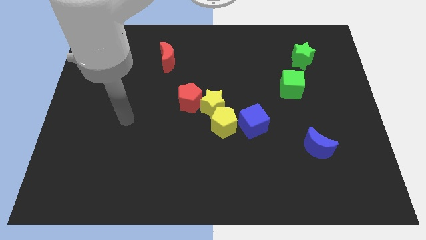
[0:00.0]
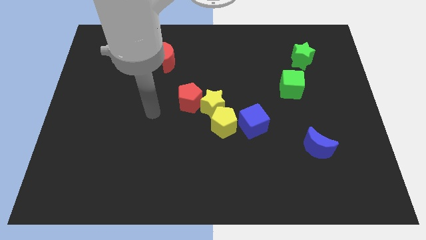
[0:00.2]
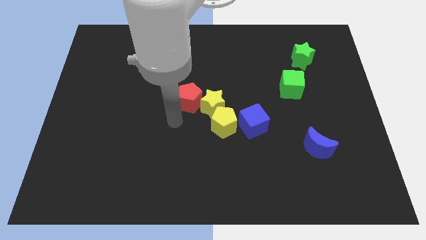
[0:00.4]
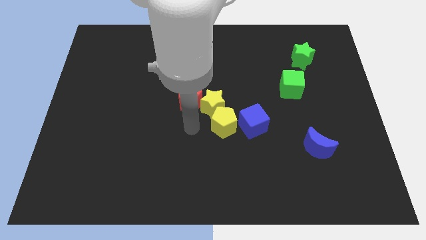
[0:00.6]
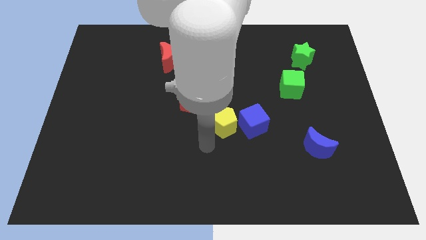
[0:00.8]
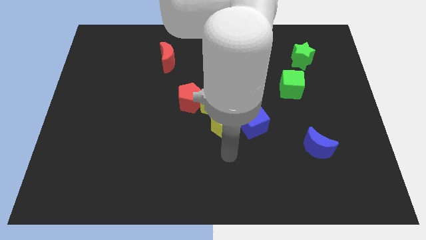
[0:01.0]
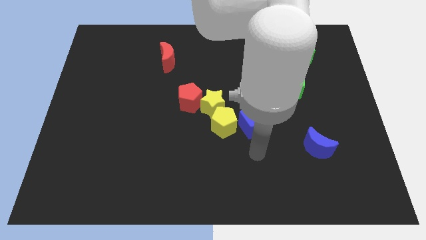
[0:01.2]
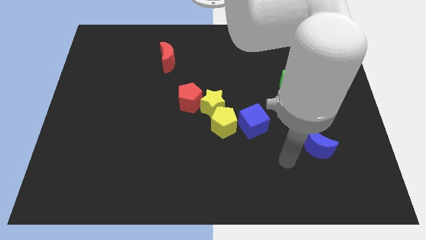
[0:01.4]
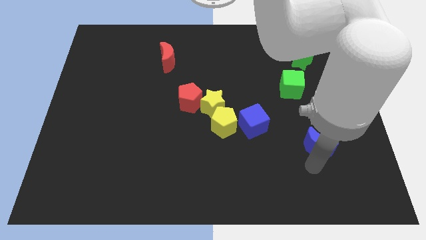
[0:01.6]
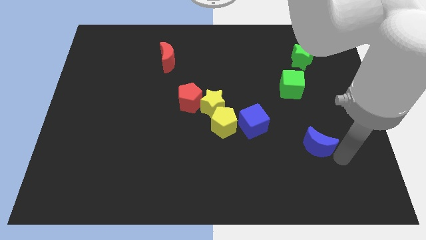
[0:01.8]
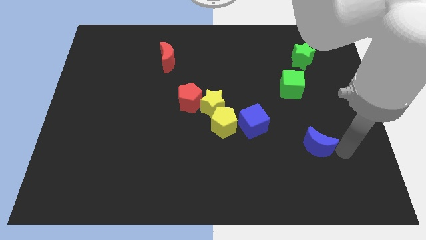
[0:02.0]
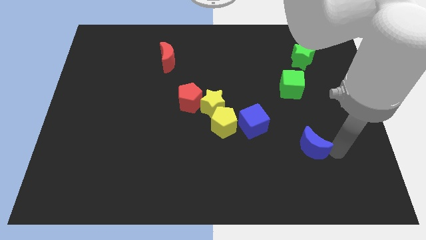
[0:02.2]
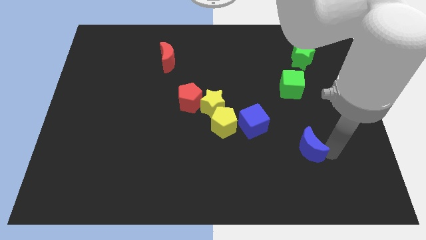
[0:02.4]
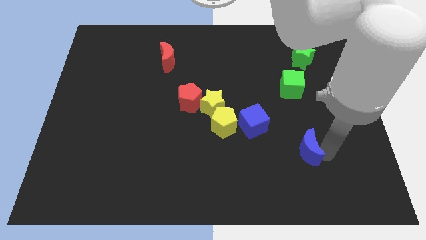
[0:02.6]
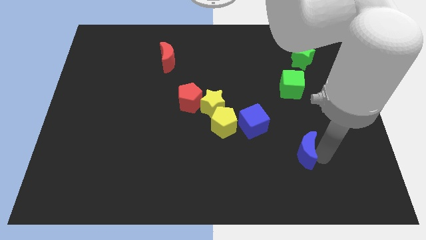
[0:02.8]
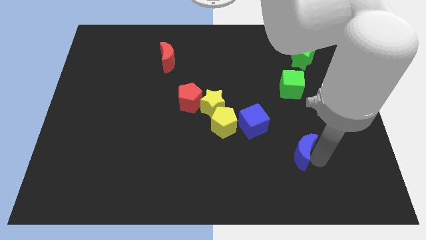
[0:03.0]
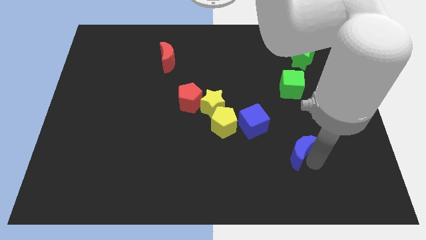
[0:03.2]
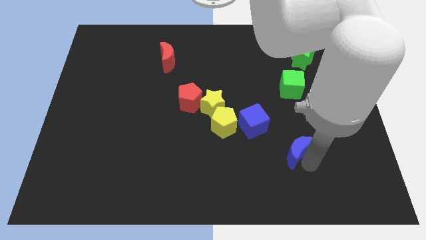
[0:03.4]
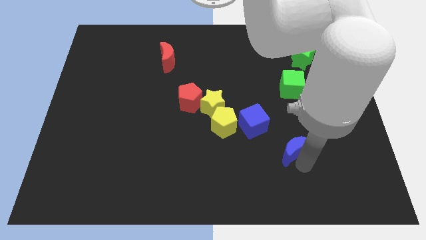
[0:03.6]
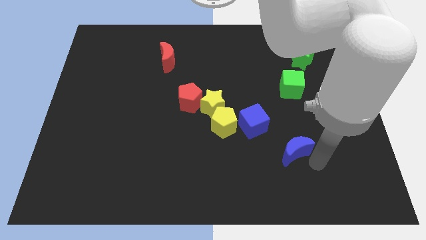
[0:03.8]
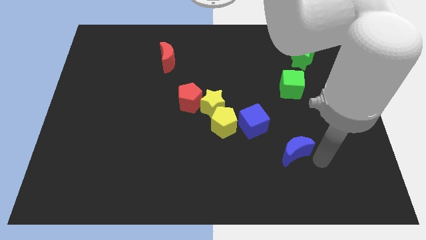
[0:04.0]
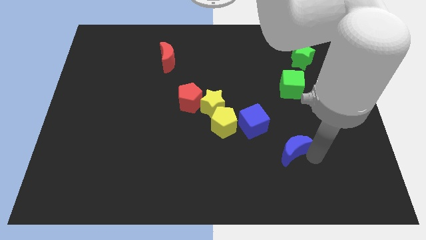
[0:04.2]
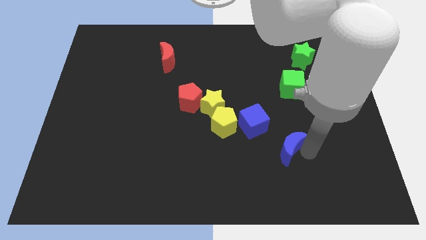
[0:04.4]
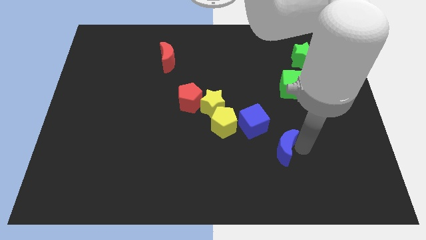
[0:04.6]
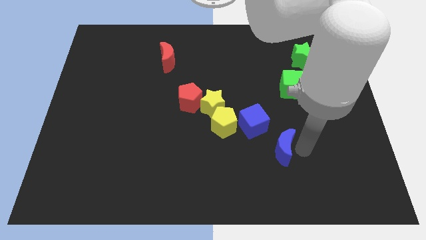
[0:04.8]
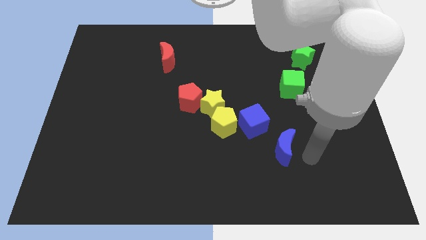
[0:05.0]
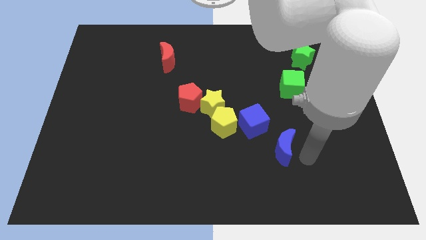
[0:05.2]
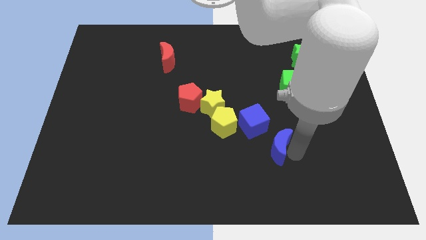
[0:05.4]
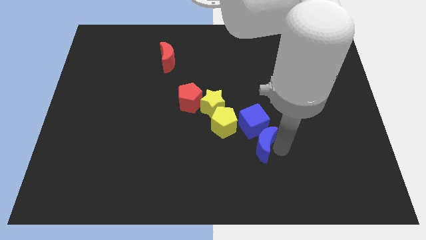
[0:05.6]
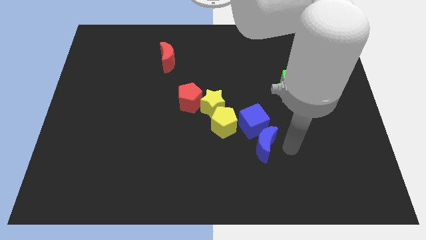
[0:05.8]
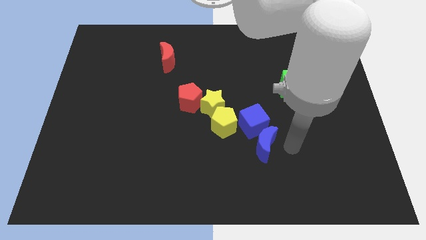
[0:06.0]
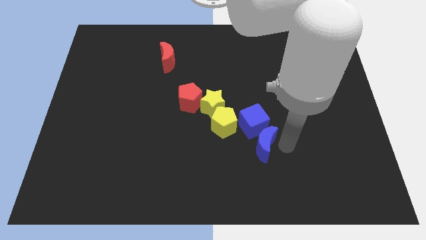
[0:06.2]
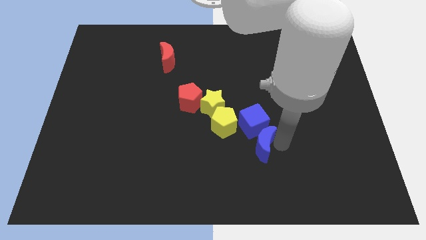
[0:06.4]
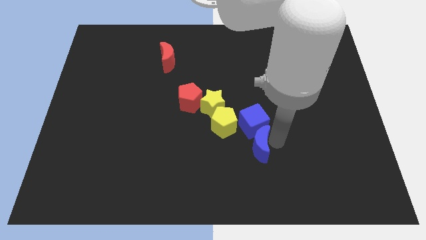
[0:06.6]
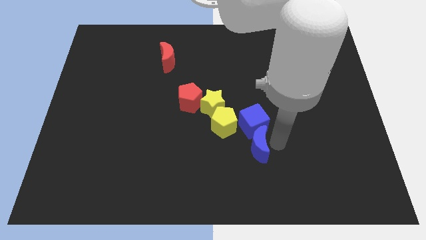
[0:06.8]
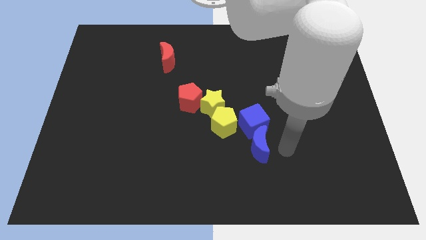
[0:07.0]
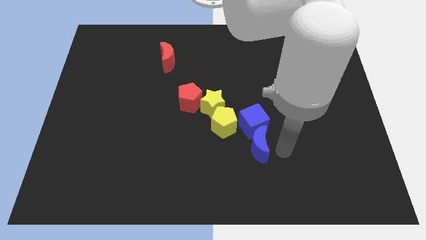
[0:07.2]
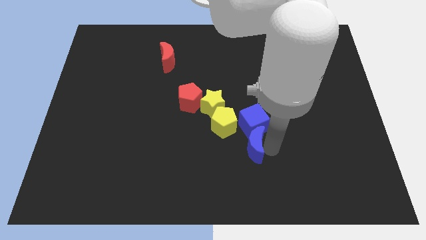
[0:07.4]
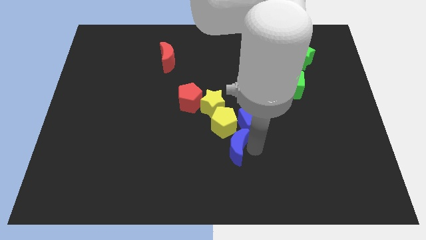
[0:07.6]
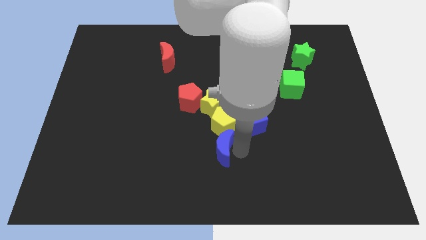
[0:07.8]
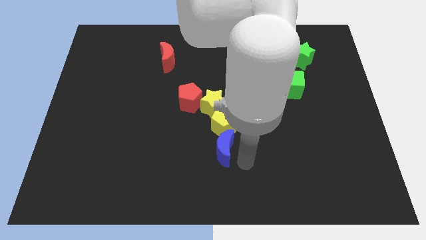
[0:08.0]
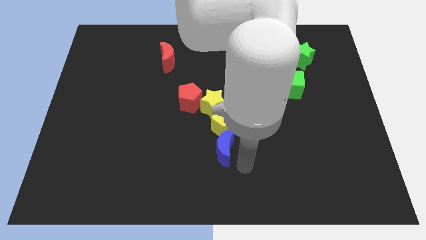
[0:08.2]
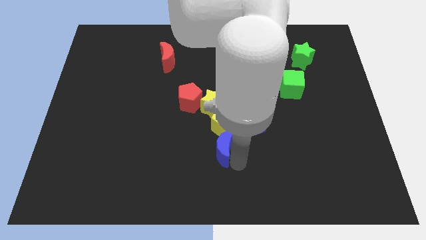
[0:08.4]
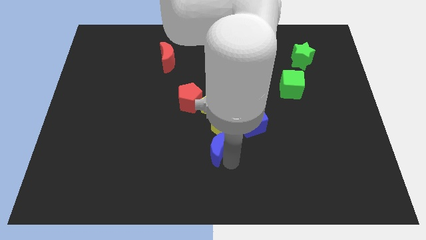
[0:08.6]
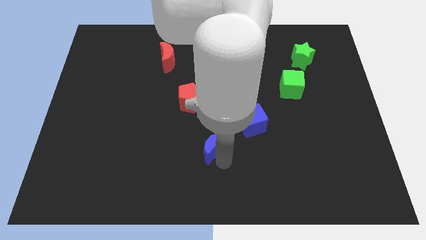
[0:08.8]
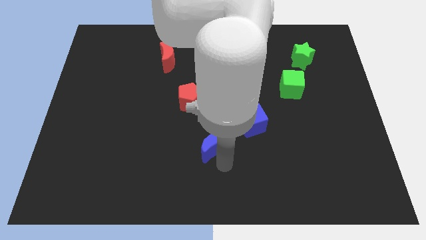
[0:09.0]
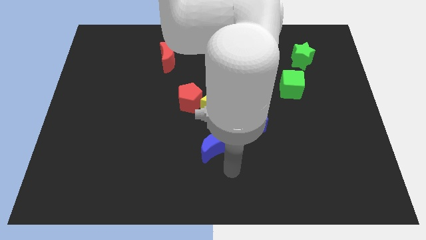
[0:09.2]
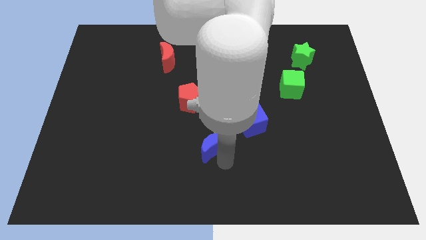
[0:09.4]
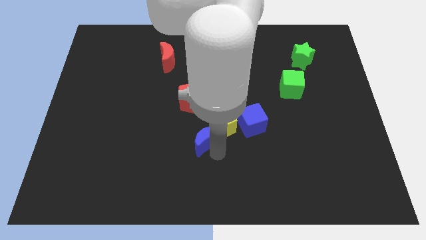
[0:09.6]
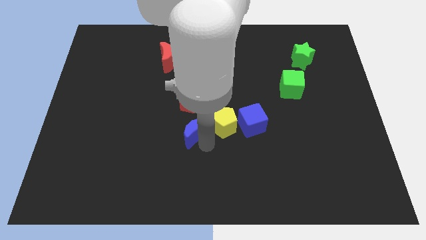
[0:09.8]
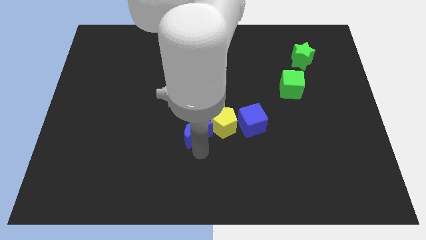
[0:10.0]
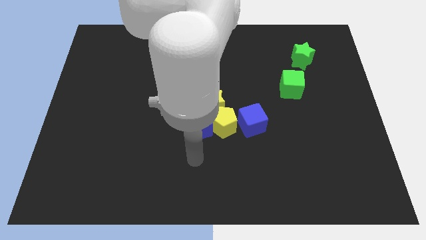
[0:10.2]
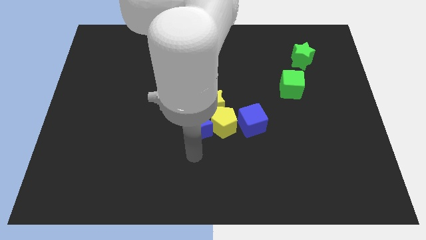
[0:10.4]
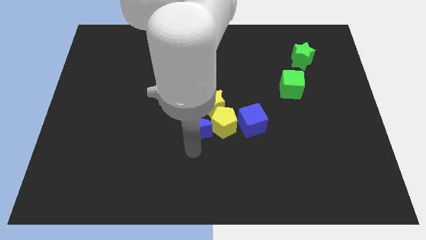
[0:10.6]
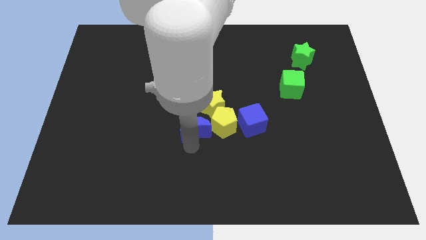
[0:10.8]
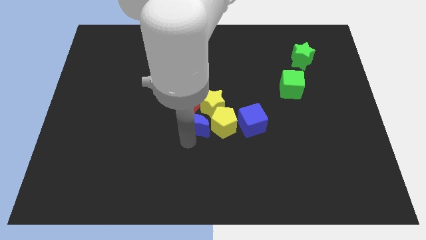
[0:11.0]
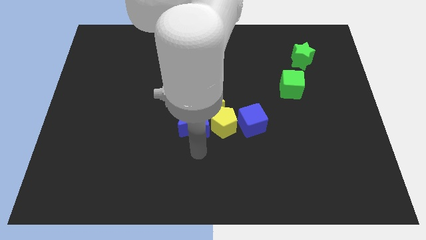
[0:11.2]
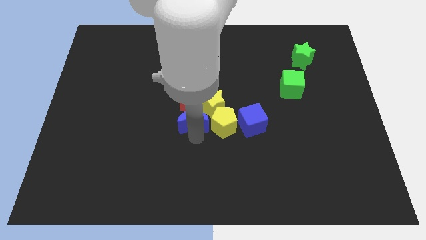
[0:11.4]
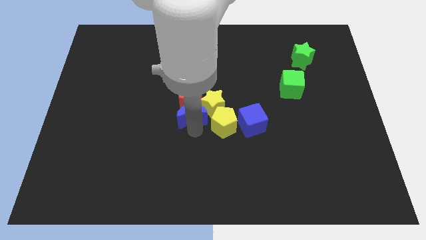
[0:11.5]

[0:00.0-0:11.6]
put the blue moon towards the red pentagon

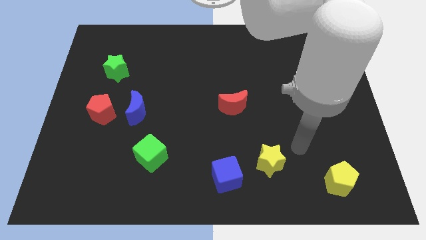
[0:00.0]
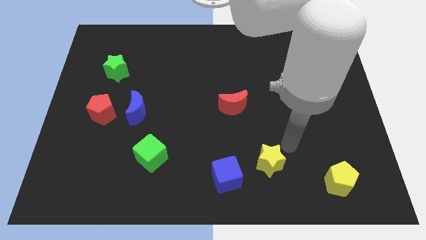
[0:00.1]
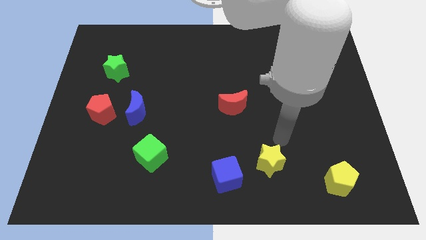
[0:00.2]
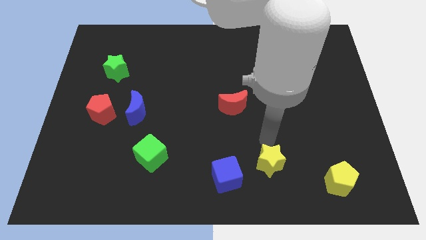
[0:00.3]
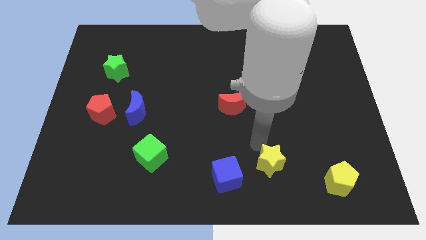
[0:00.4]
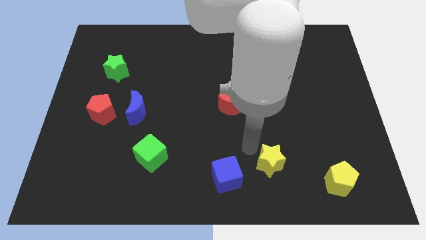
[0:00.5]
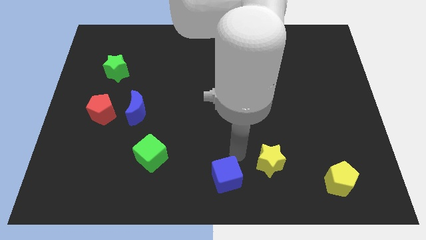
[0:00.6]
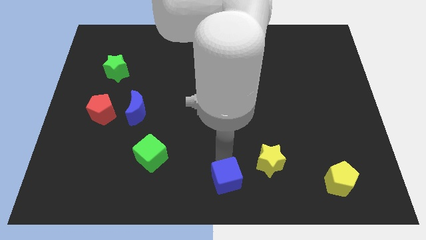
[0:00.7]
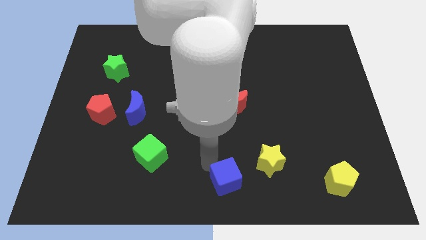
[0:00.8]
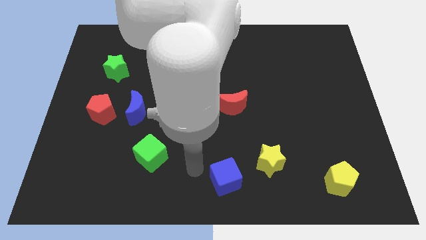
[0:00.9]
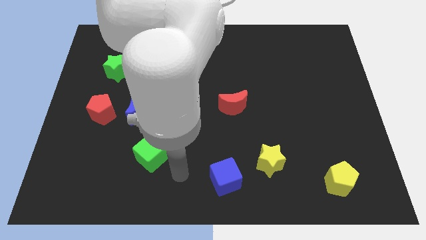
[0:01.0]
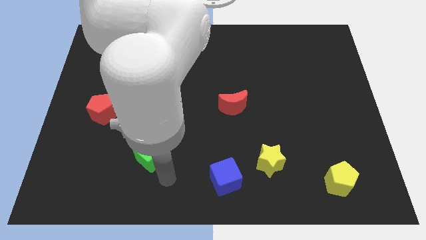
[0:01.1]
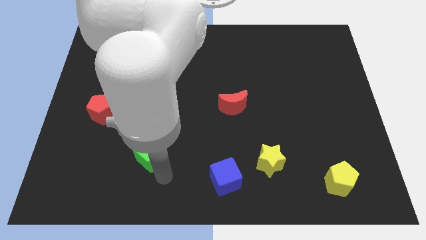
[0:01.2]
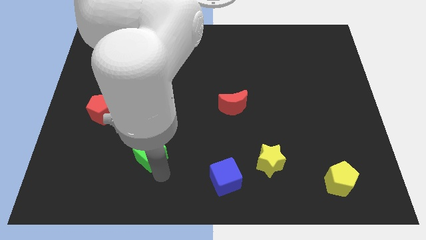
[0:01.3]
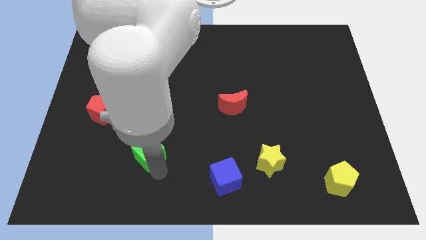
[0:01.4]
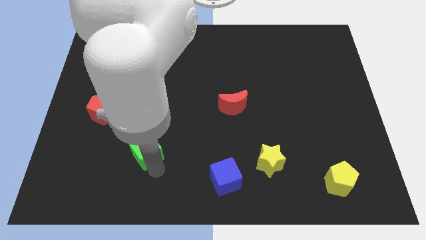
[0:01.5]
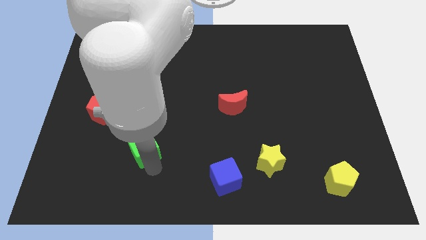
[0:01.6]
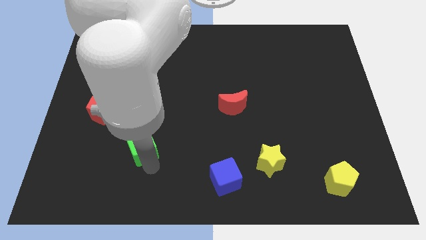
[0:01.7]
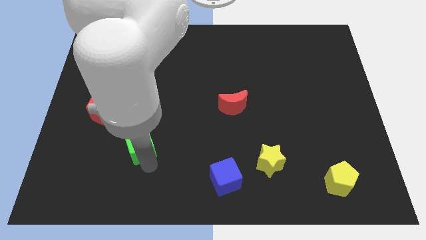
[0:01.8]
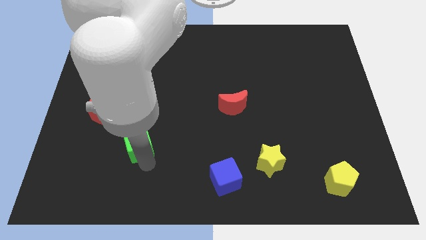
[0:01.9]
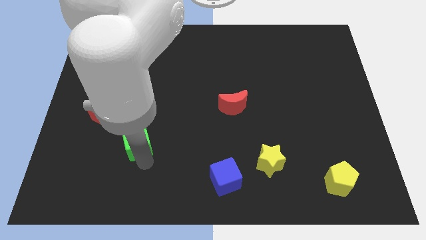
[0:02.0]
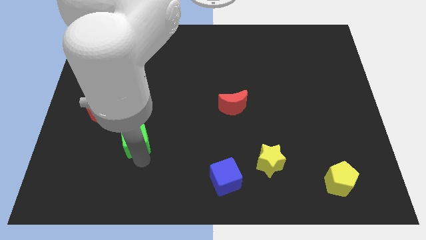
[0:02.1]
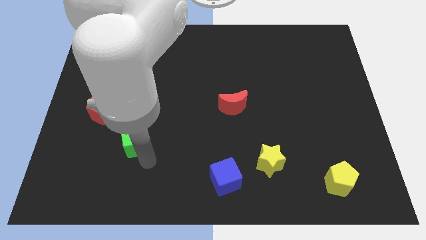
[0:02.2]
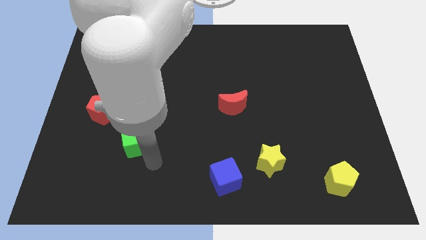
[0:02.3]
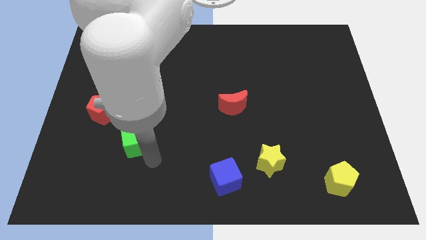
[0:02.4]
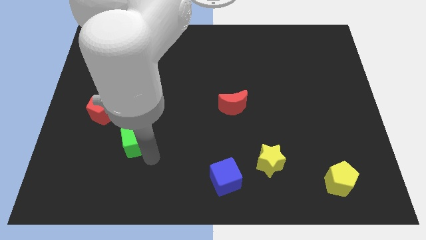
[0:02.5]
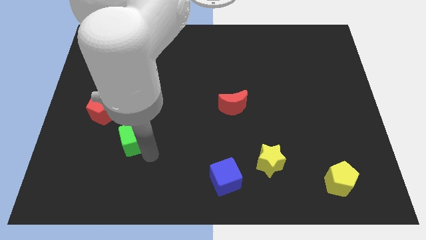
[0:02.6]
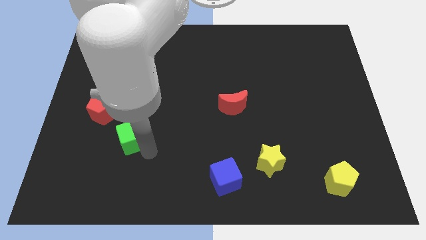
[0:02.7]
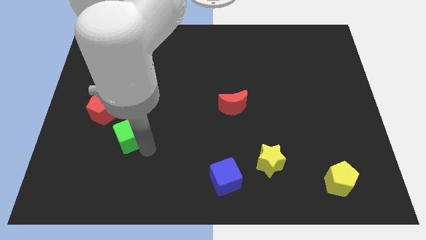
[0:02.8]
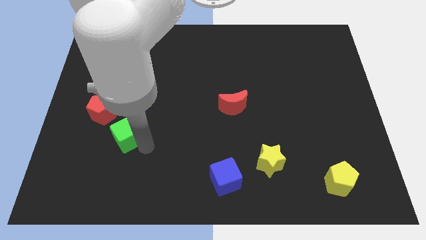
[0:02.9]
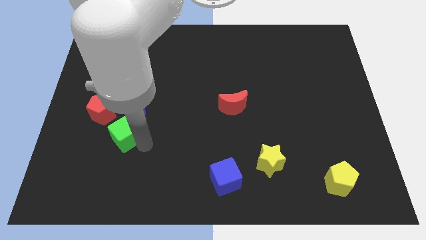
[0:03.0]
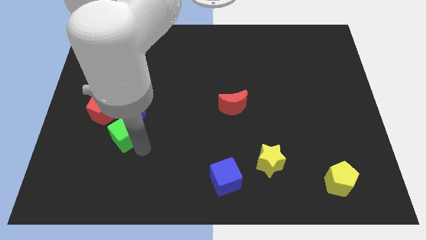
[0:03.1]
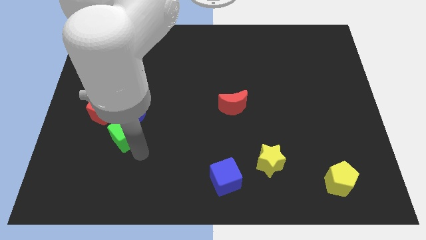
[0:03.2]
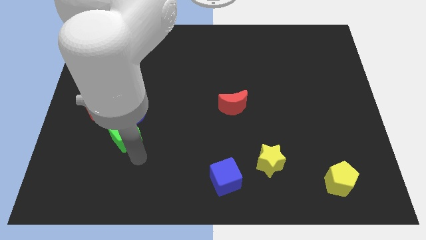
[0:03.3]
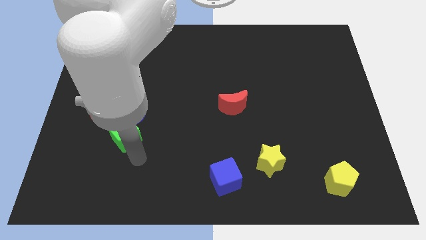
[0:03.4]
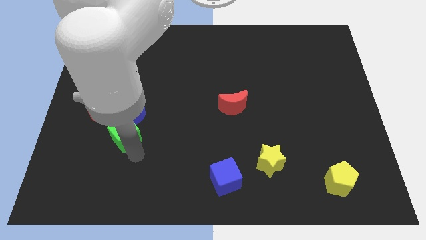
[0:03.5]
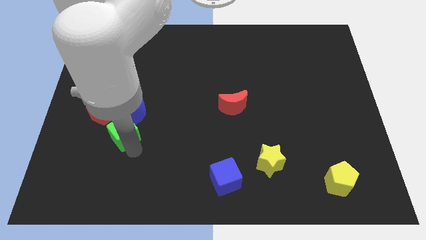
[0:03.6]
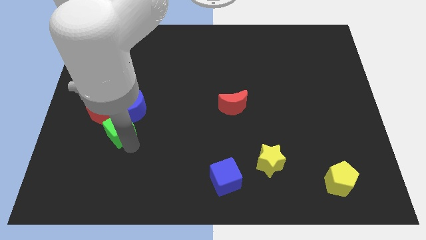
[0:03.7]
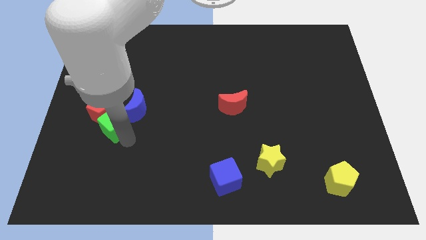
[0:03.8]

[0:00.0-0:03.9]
push the green cube towards the red pentagon
